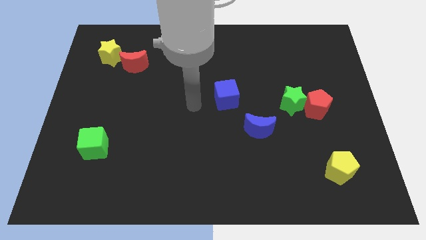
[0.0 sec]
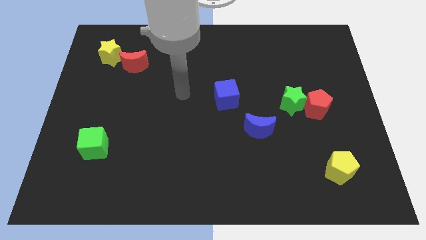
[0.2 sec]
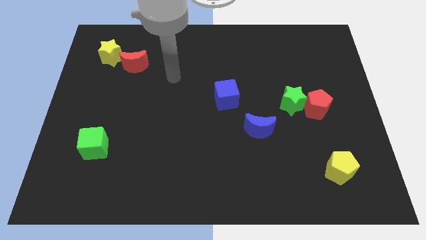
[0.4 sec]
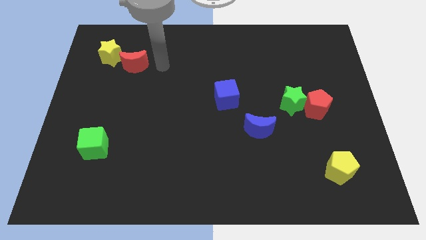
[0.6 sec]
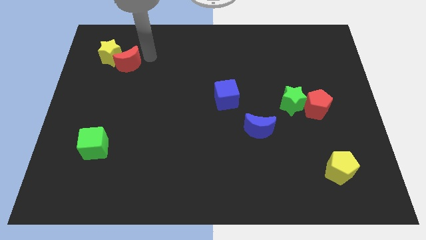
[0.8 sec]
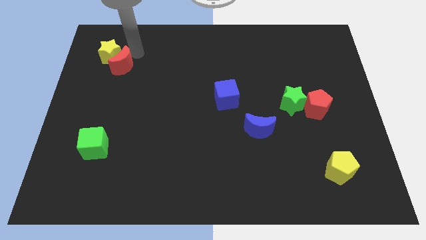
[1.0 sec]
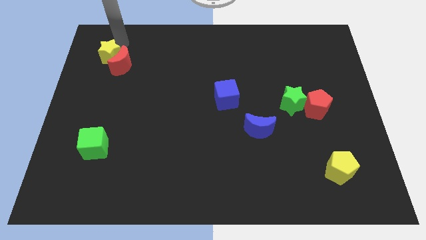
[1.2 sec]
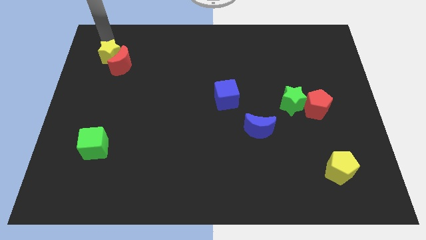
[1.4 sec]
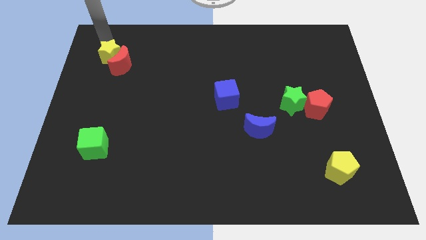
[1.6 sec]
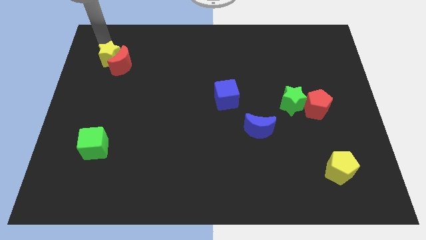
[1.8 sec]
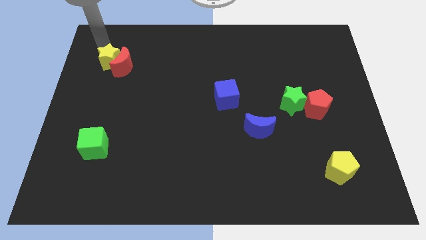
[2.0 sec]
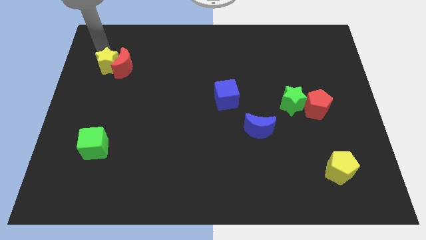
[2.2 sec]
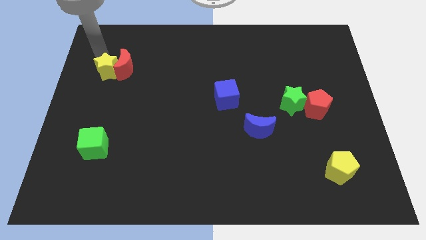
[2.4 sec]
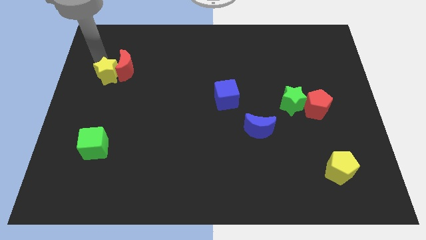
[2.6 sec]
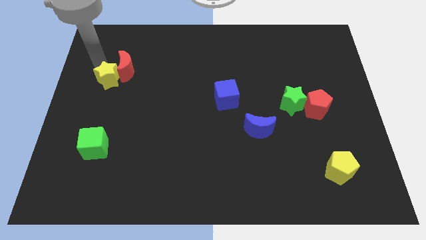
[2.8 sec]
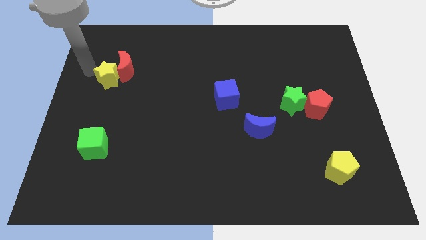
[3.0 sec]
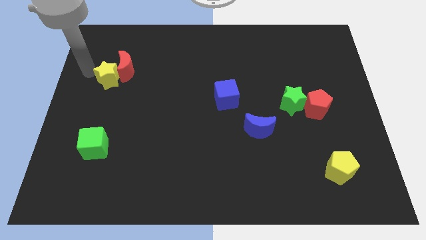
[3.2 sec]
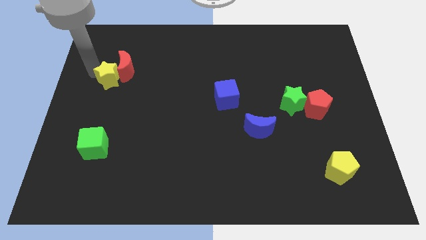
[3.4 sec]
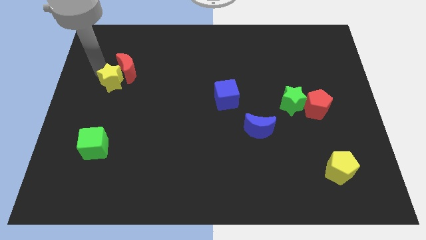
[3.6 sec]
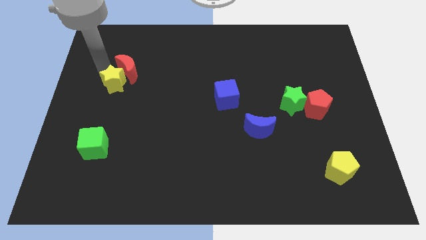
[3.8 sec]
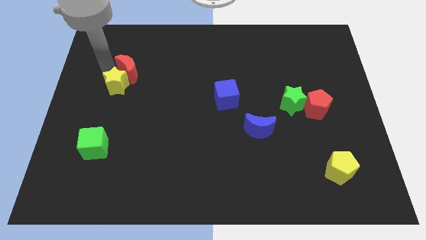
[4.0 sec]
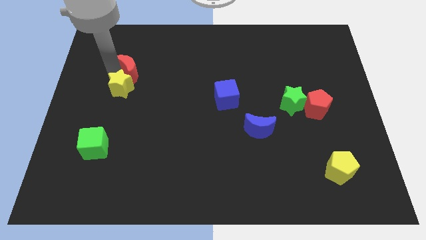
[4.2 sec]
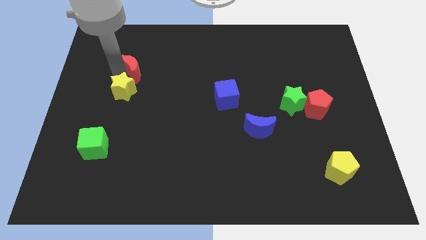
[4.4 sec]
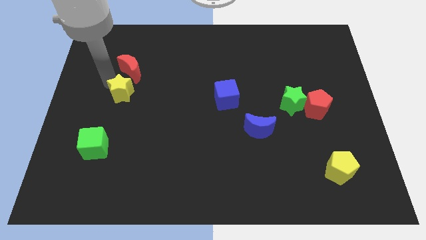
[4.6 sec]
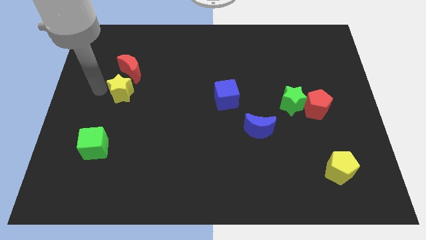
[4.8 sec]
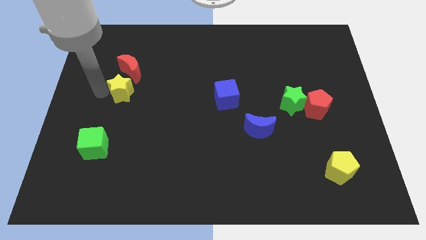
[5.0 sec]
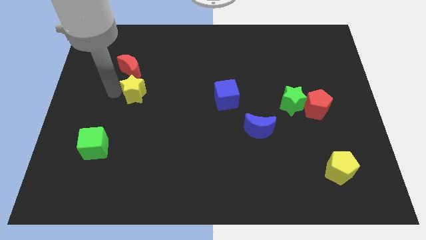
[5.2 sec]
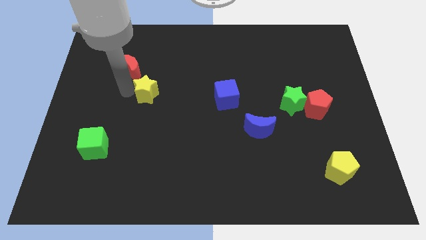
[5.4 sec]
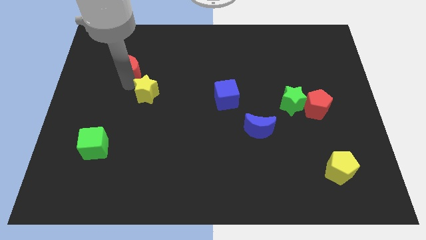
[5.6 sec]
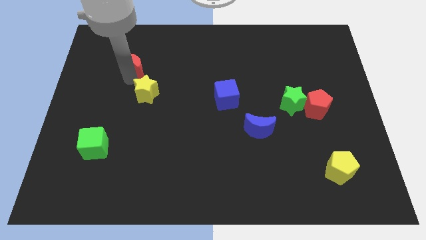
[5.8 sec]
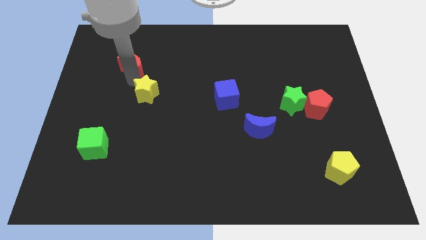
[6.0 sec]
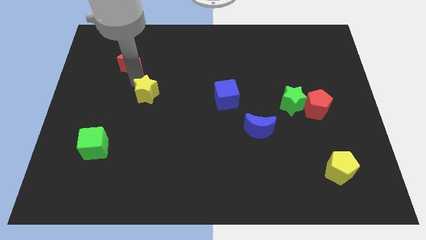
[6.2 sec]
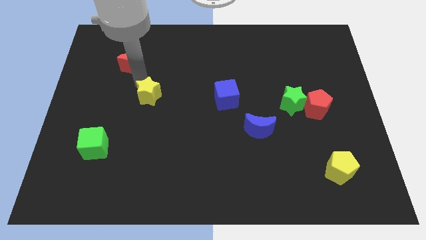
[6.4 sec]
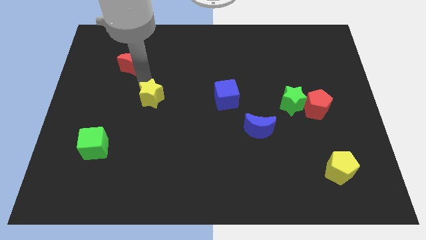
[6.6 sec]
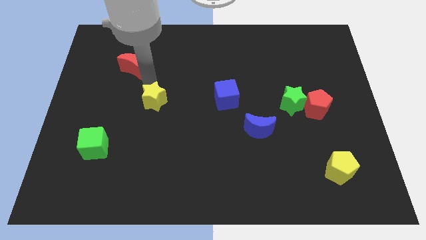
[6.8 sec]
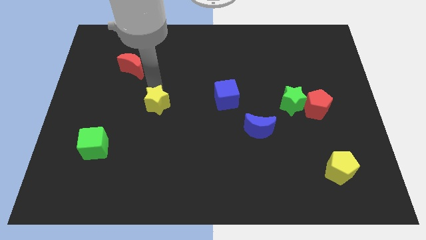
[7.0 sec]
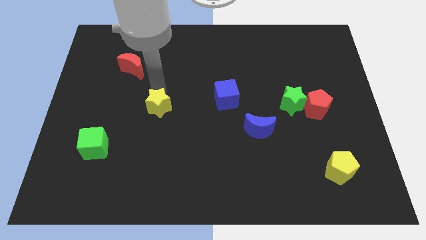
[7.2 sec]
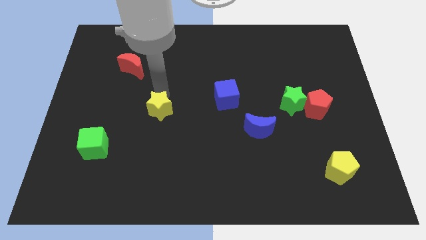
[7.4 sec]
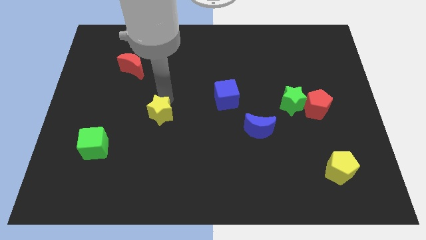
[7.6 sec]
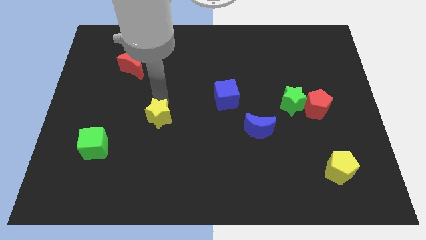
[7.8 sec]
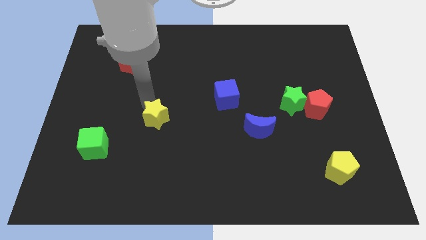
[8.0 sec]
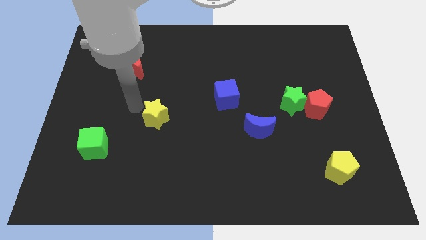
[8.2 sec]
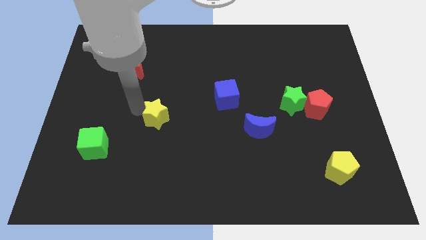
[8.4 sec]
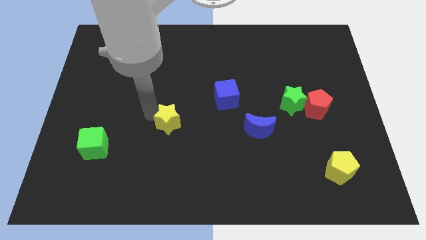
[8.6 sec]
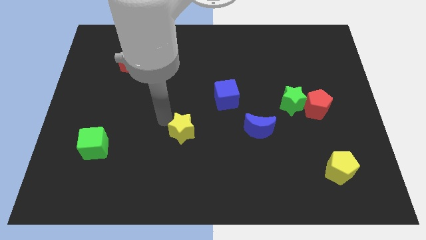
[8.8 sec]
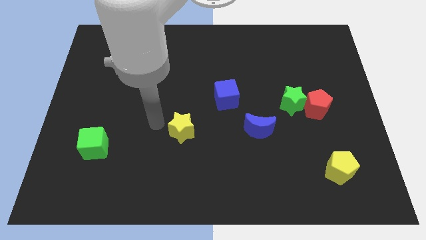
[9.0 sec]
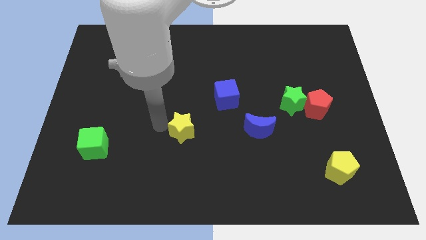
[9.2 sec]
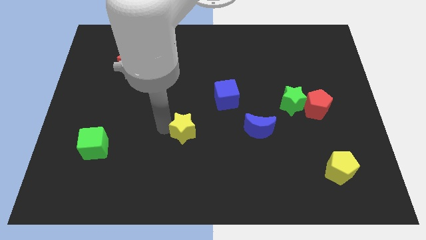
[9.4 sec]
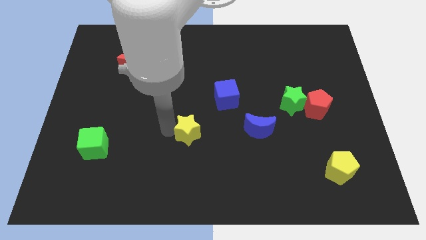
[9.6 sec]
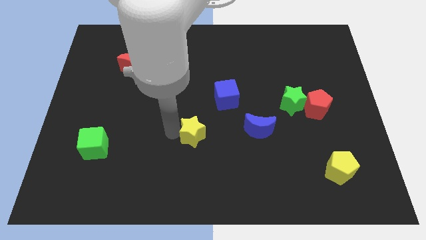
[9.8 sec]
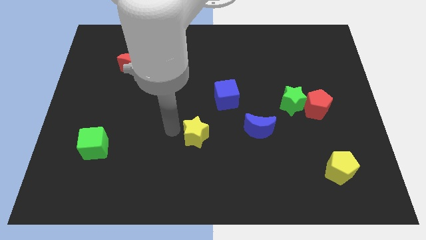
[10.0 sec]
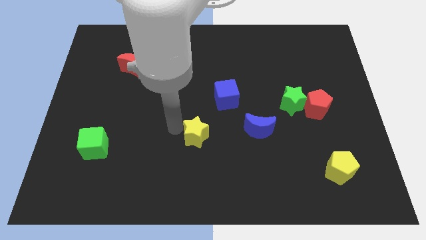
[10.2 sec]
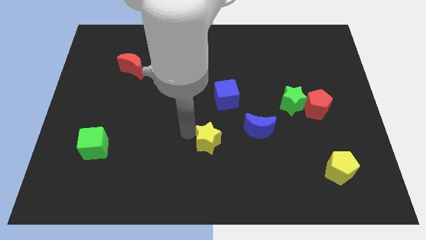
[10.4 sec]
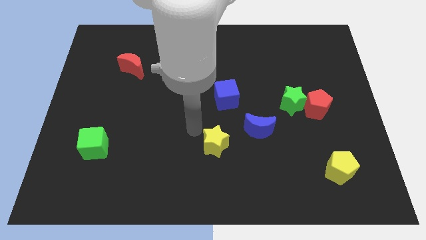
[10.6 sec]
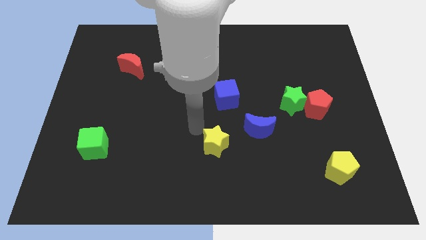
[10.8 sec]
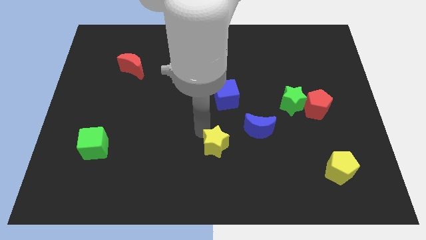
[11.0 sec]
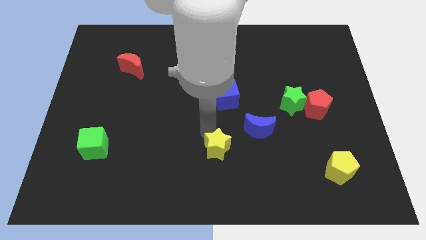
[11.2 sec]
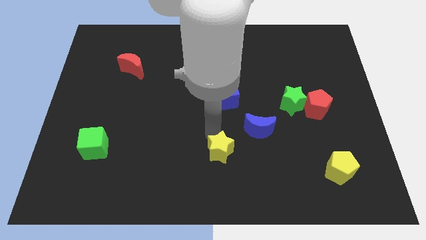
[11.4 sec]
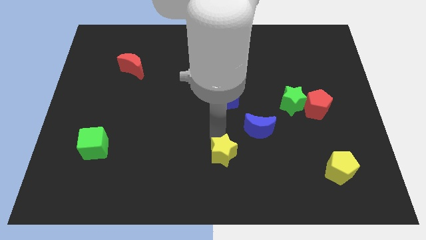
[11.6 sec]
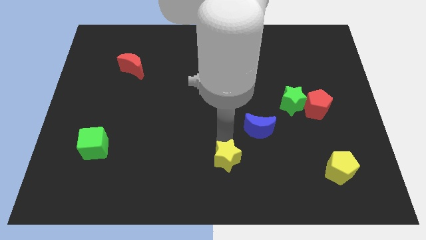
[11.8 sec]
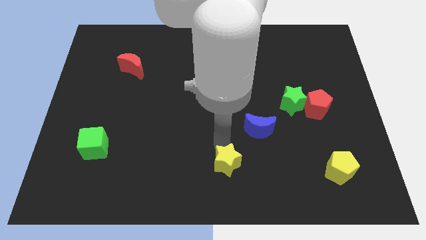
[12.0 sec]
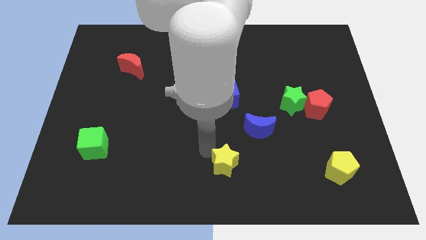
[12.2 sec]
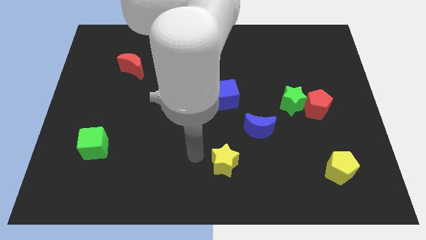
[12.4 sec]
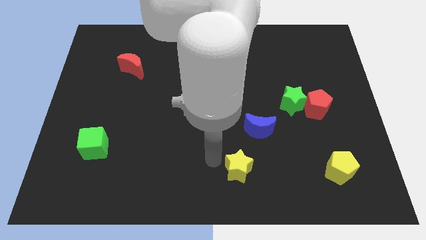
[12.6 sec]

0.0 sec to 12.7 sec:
push the yellow star to the bottom side of the blue moon
